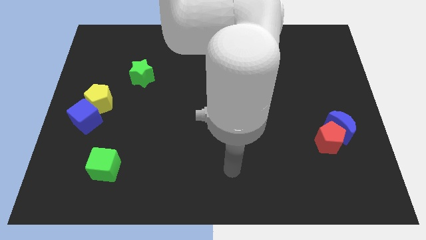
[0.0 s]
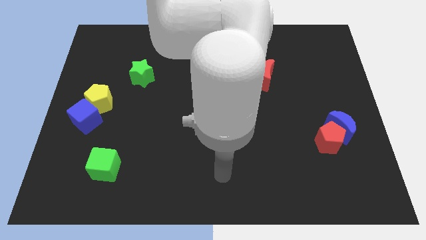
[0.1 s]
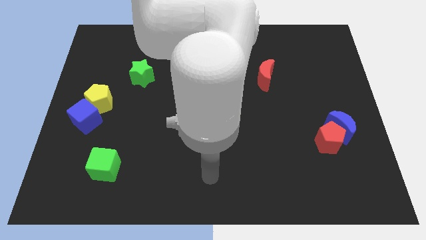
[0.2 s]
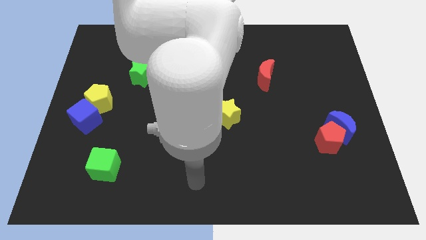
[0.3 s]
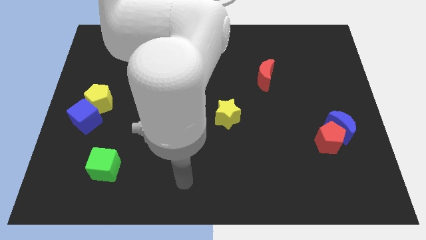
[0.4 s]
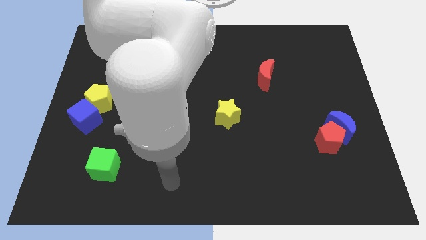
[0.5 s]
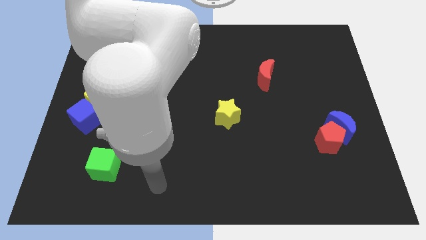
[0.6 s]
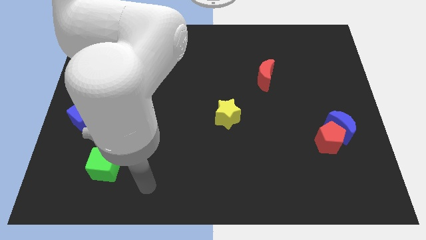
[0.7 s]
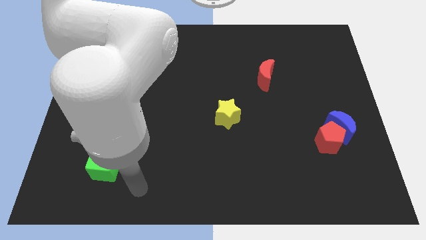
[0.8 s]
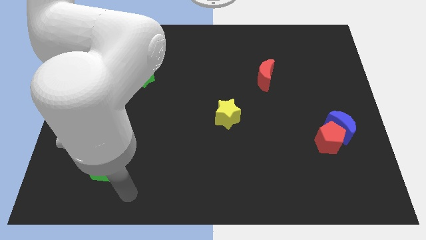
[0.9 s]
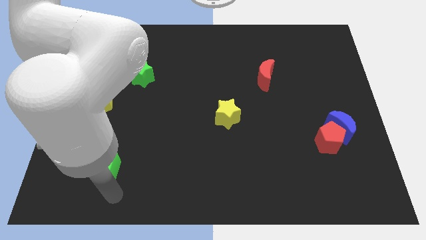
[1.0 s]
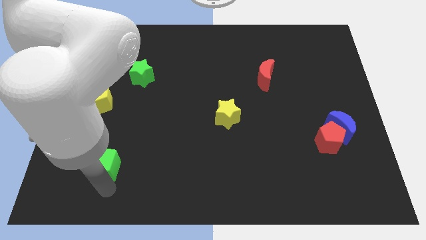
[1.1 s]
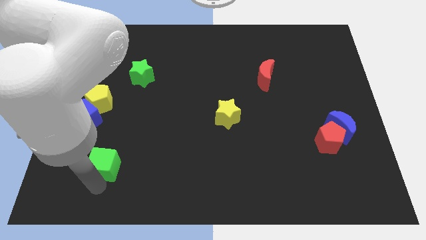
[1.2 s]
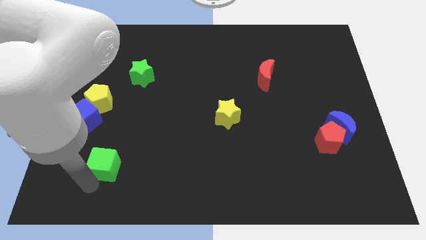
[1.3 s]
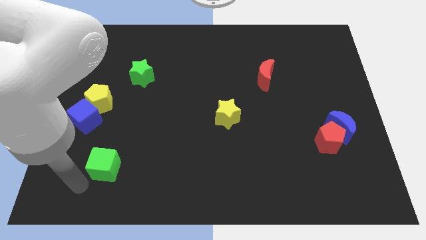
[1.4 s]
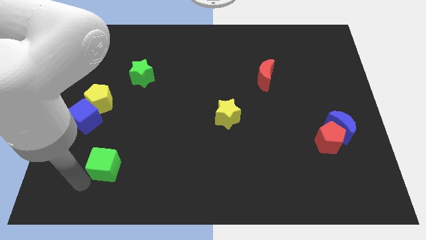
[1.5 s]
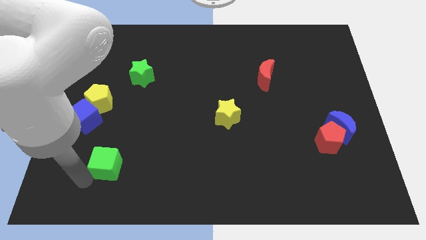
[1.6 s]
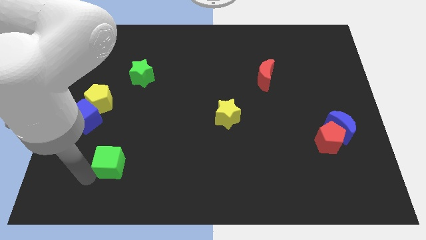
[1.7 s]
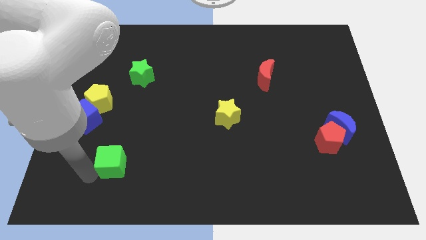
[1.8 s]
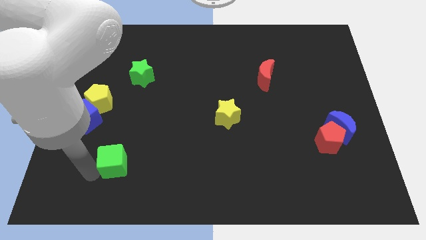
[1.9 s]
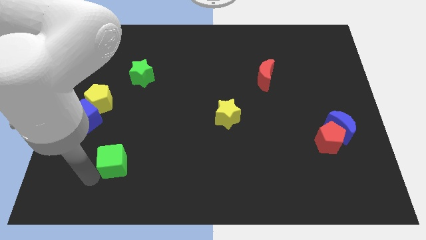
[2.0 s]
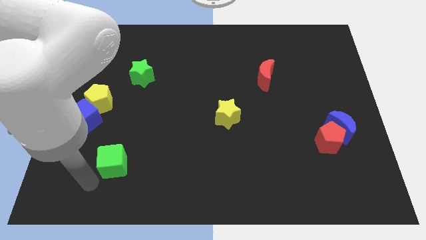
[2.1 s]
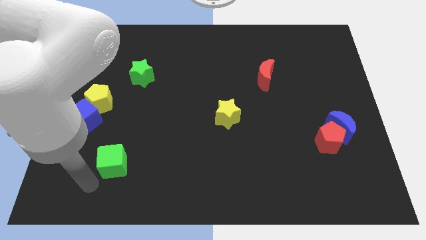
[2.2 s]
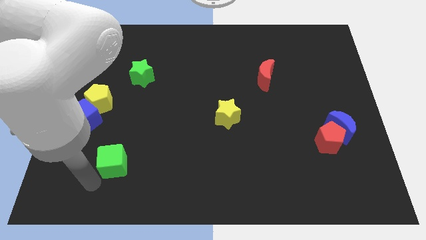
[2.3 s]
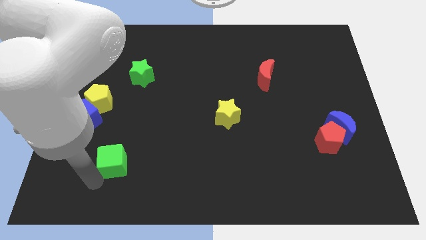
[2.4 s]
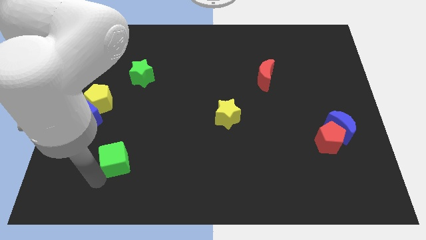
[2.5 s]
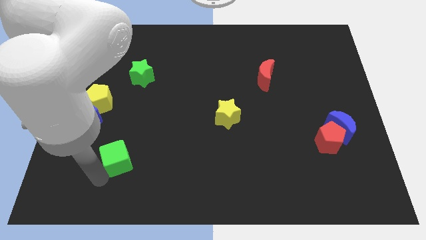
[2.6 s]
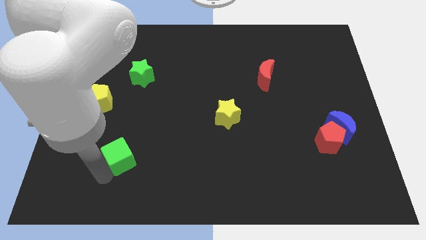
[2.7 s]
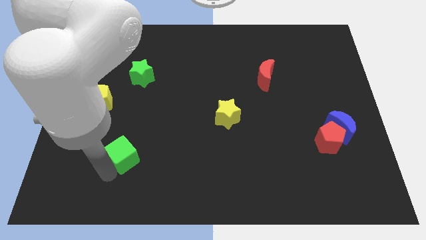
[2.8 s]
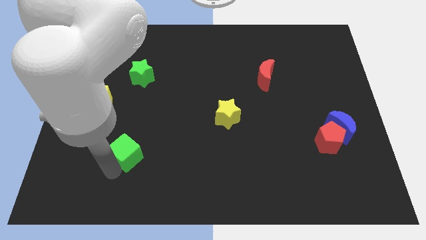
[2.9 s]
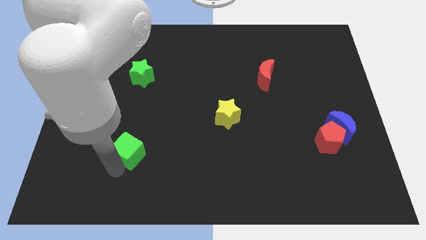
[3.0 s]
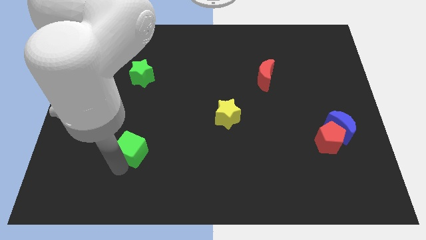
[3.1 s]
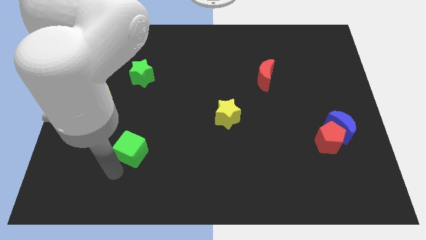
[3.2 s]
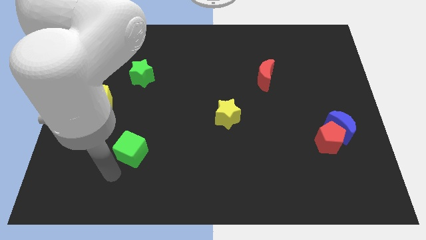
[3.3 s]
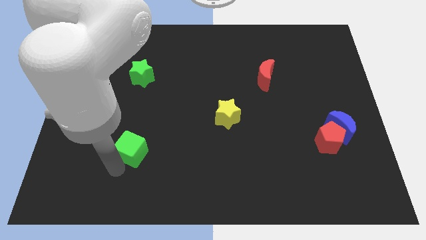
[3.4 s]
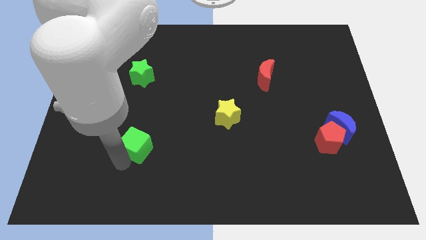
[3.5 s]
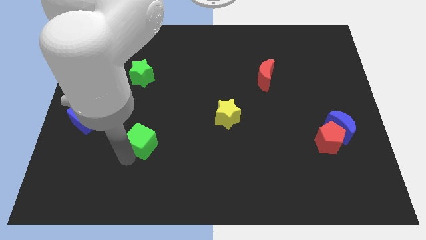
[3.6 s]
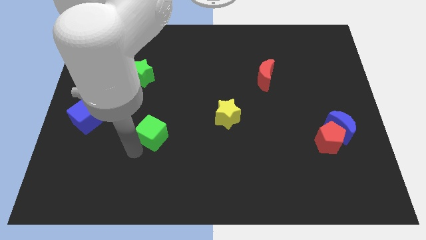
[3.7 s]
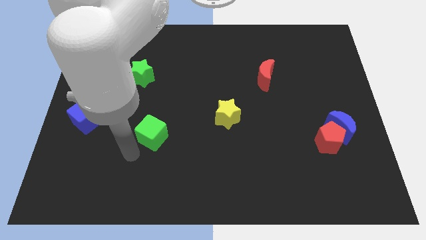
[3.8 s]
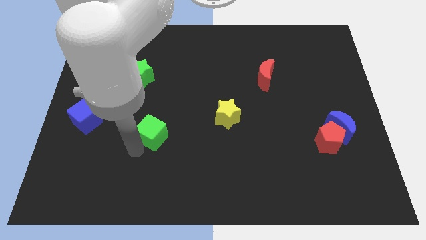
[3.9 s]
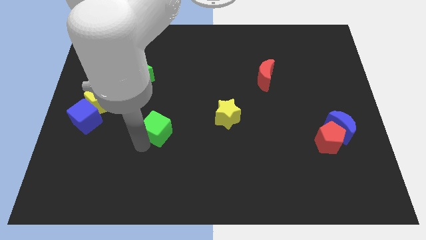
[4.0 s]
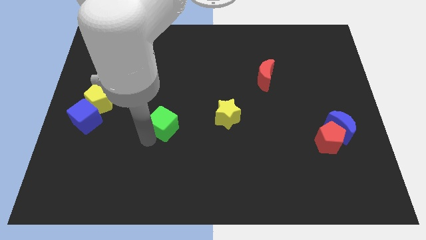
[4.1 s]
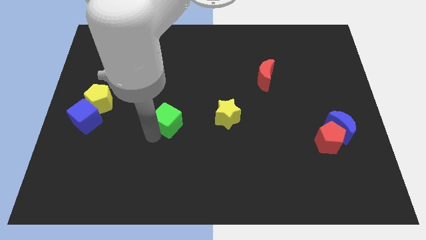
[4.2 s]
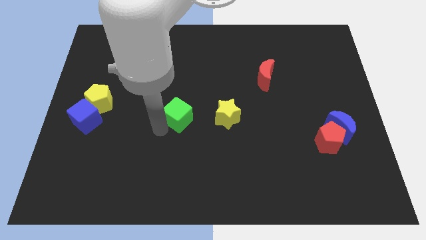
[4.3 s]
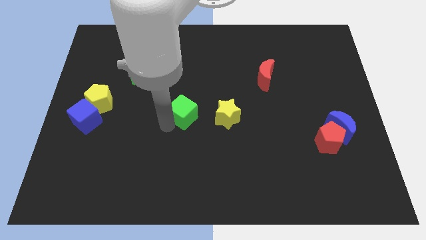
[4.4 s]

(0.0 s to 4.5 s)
slide the green cube up and right diagonally

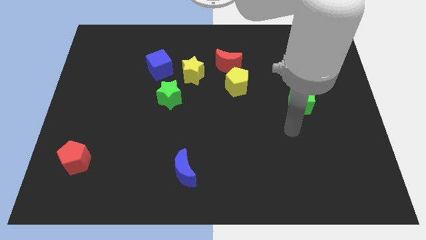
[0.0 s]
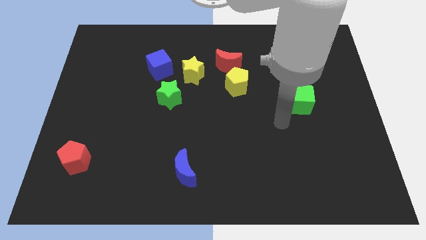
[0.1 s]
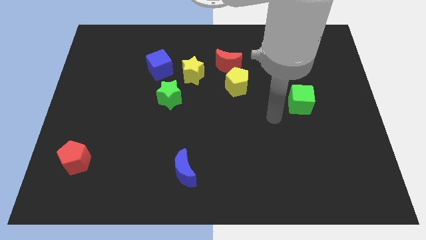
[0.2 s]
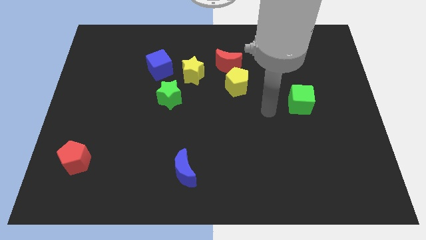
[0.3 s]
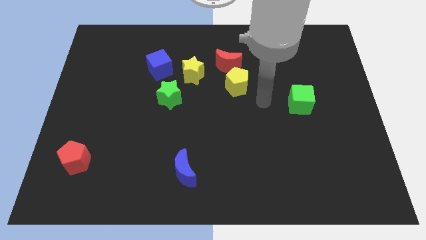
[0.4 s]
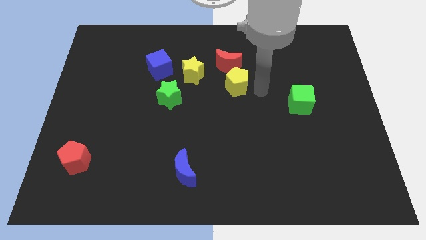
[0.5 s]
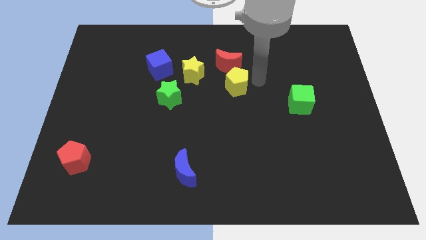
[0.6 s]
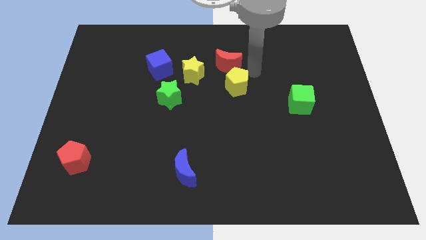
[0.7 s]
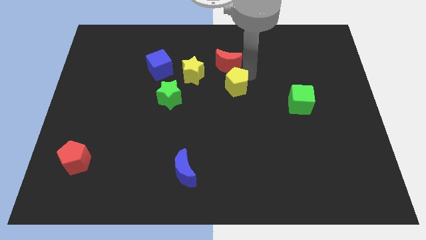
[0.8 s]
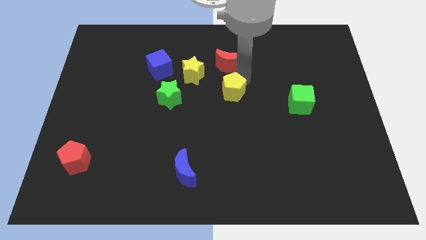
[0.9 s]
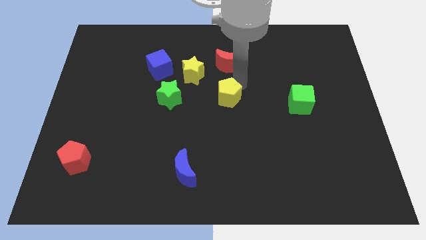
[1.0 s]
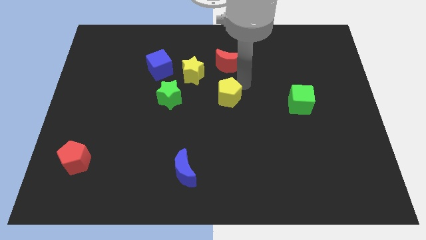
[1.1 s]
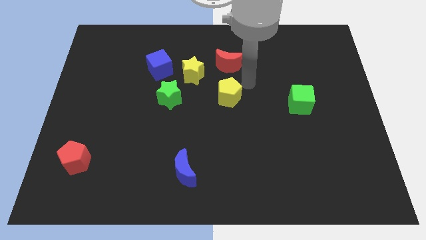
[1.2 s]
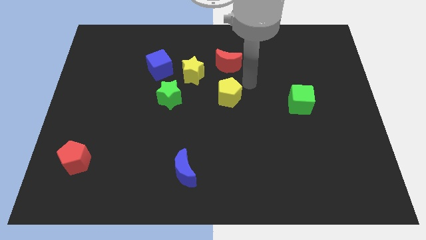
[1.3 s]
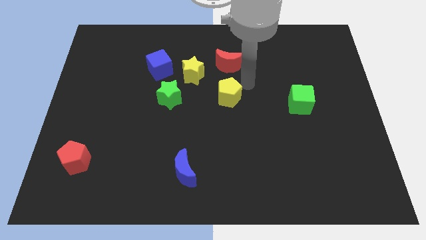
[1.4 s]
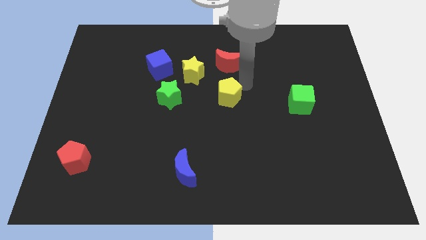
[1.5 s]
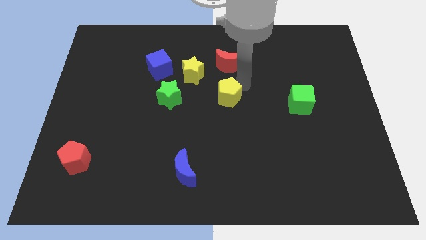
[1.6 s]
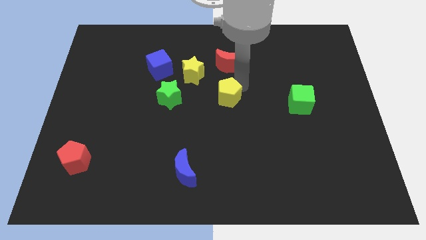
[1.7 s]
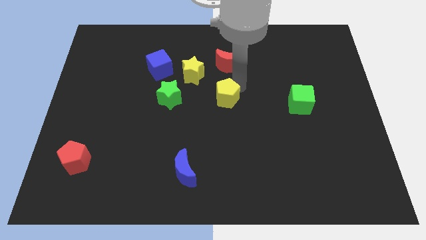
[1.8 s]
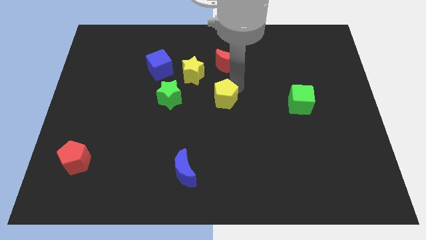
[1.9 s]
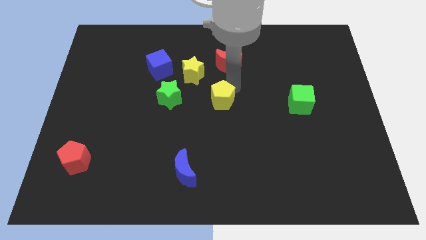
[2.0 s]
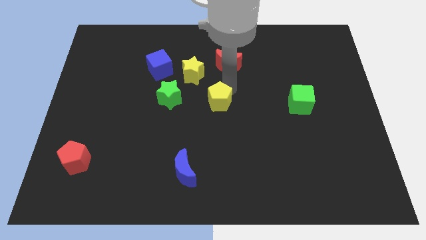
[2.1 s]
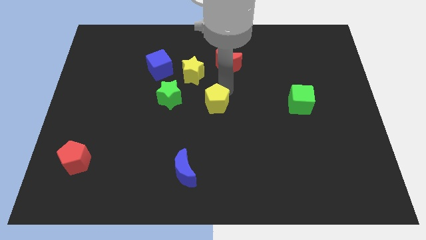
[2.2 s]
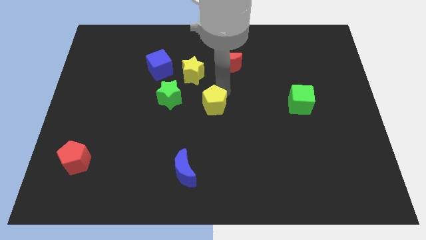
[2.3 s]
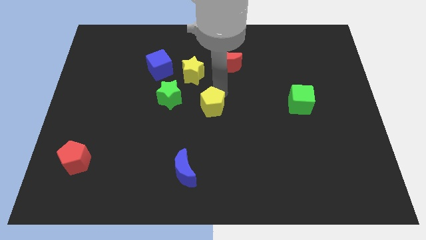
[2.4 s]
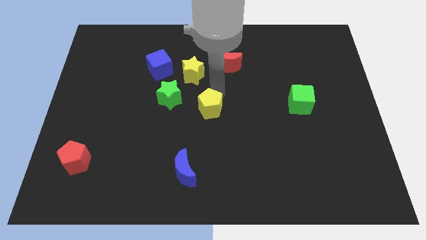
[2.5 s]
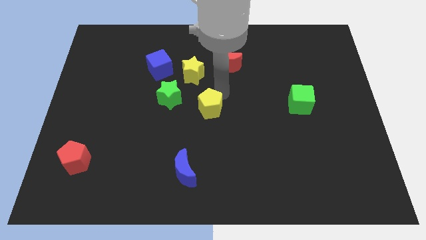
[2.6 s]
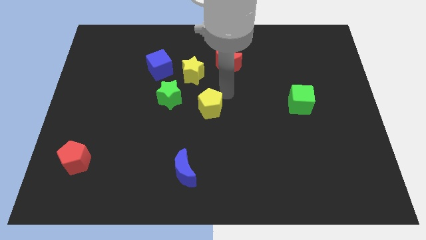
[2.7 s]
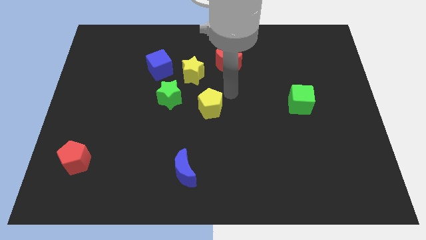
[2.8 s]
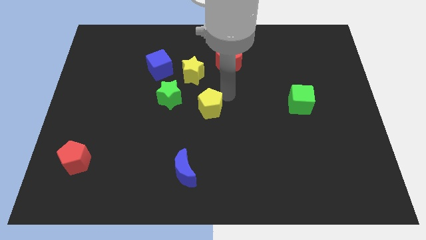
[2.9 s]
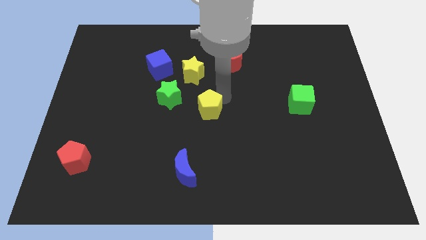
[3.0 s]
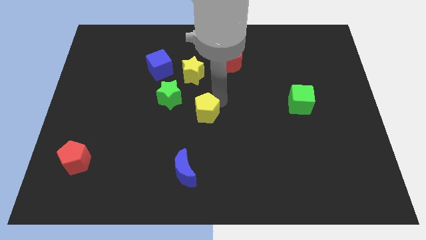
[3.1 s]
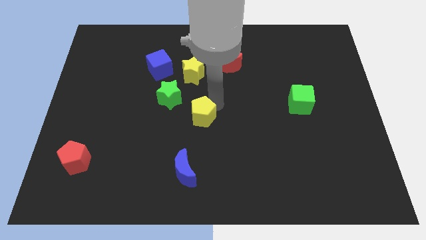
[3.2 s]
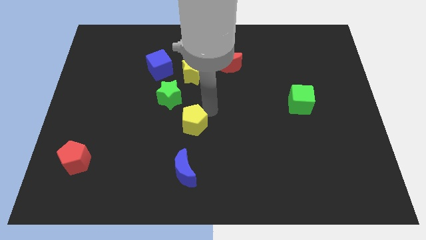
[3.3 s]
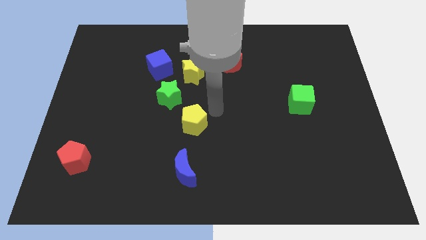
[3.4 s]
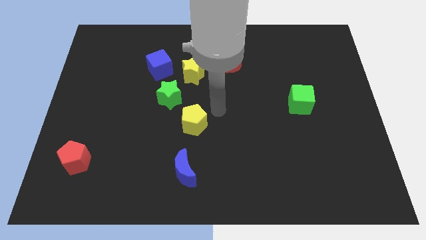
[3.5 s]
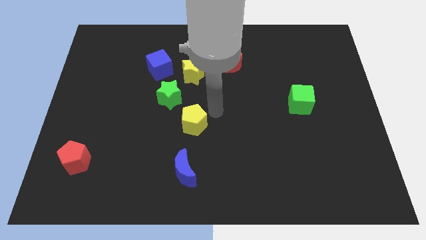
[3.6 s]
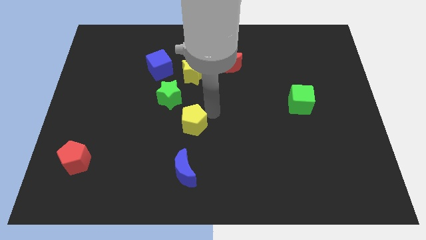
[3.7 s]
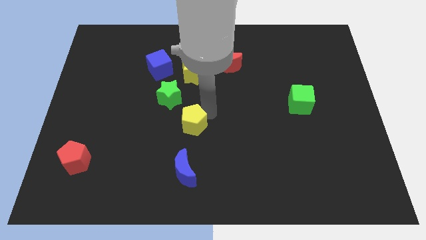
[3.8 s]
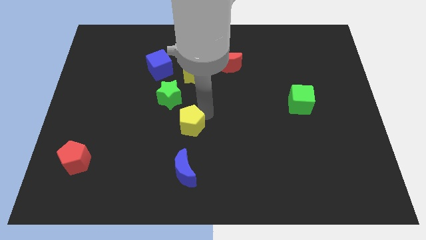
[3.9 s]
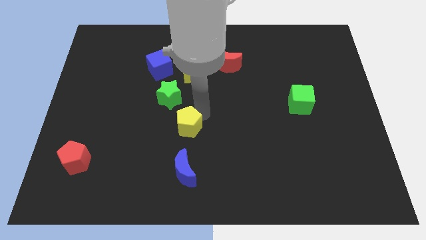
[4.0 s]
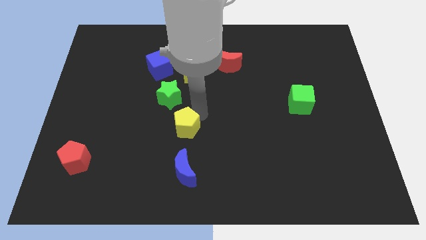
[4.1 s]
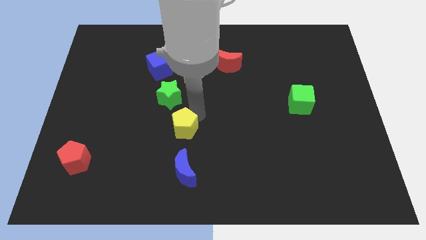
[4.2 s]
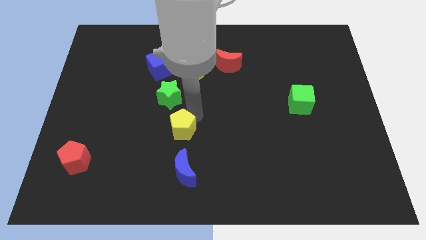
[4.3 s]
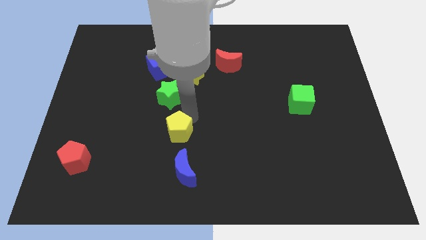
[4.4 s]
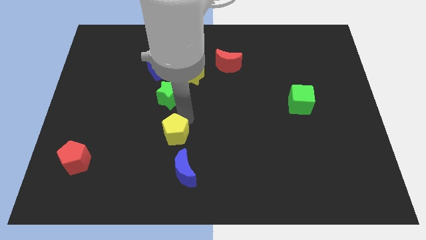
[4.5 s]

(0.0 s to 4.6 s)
move the yellow pentagon diagonally downwards and to the left
